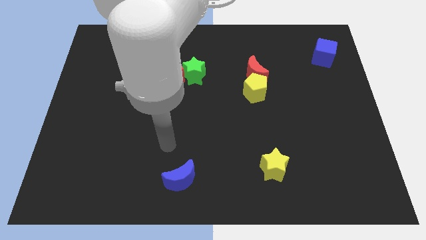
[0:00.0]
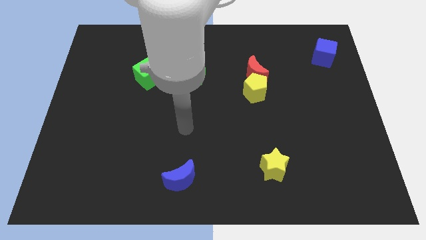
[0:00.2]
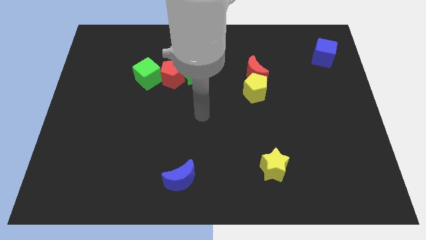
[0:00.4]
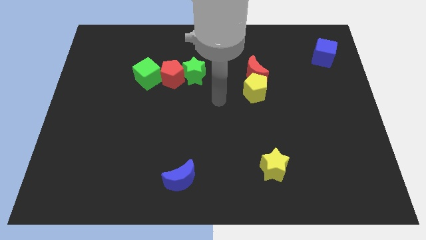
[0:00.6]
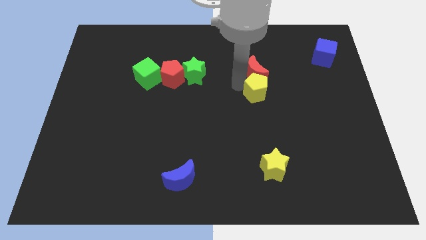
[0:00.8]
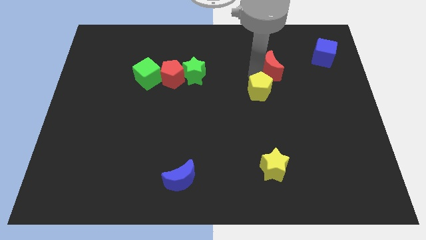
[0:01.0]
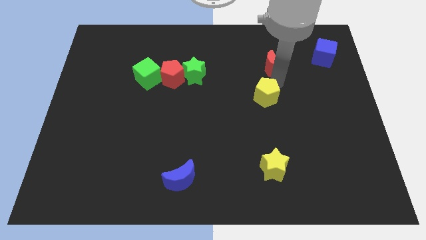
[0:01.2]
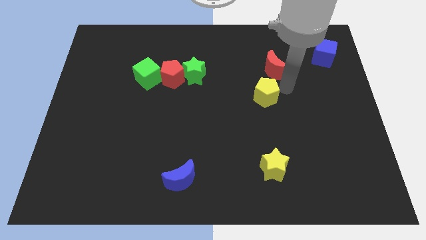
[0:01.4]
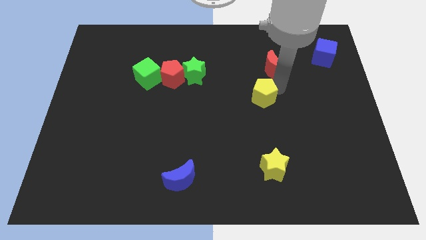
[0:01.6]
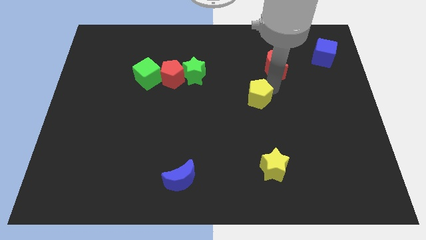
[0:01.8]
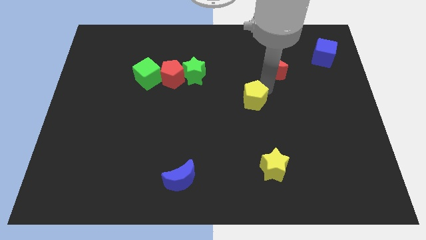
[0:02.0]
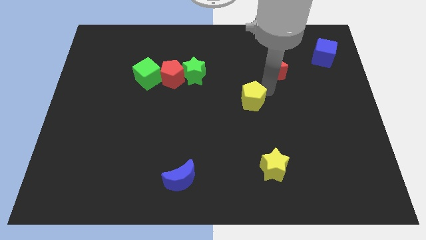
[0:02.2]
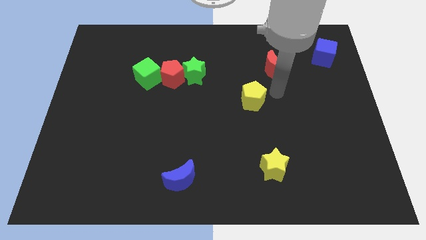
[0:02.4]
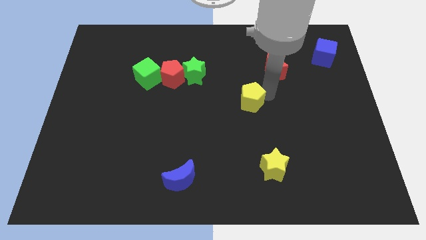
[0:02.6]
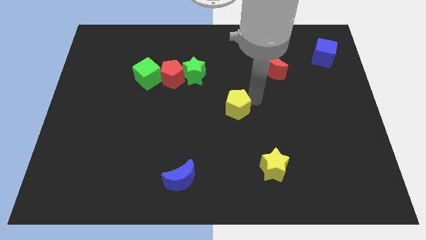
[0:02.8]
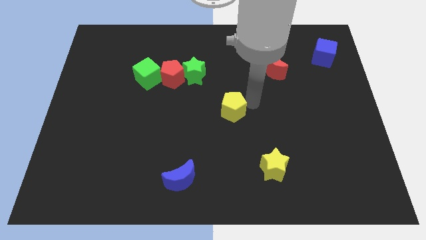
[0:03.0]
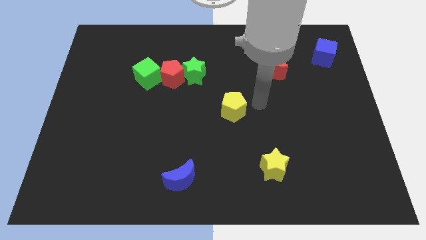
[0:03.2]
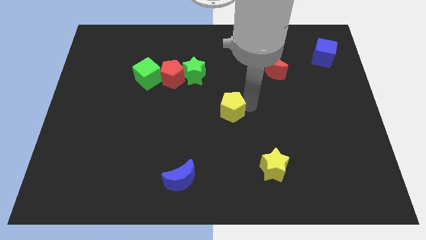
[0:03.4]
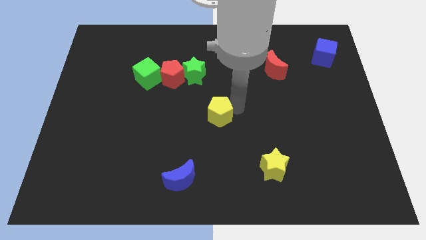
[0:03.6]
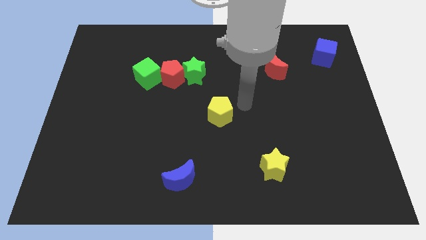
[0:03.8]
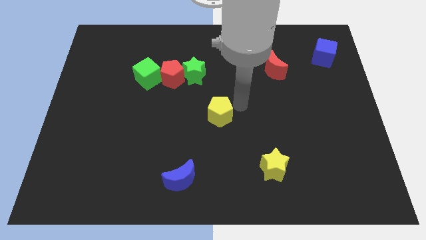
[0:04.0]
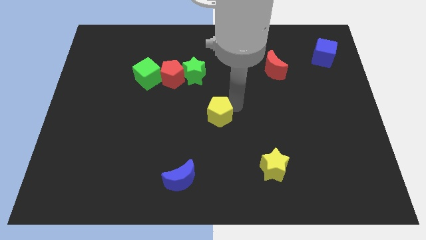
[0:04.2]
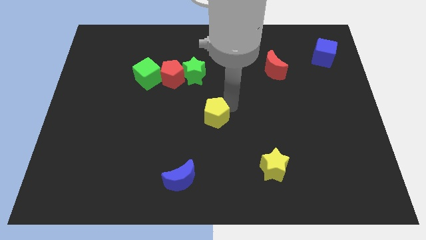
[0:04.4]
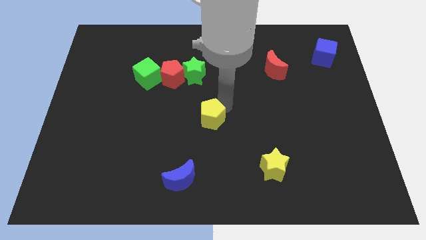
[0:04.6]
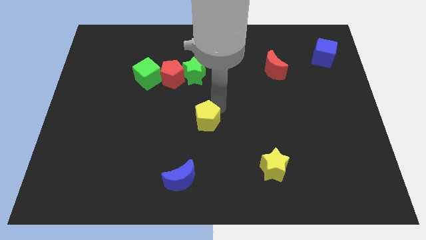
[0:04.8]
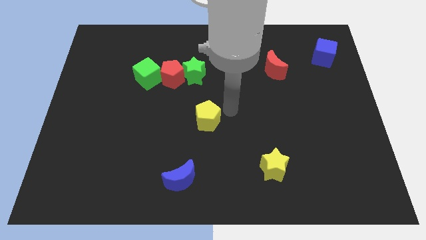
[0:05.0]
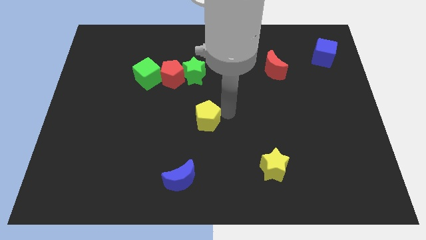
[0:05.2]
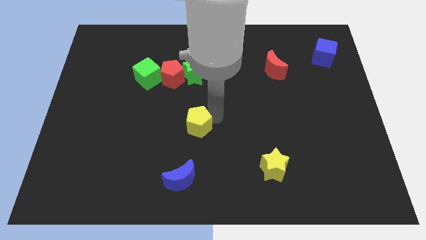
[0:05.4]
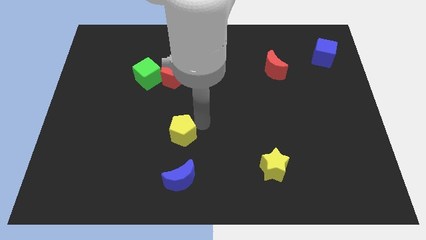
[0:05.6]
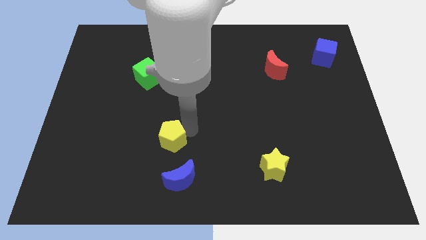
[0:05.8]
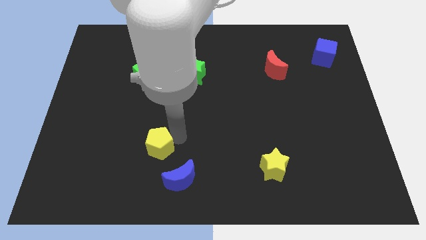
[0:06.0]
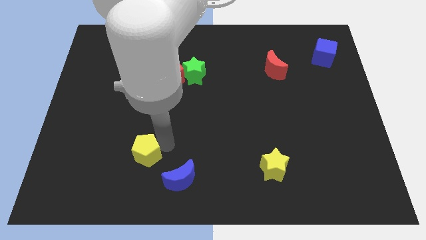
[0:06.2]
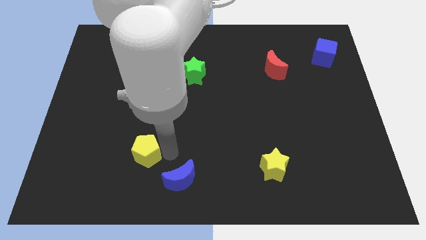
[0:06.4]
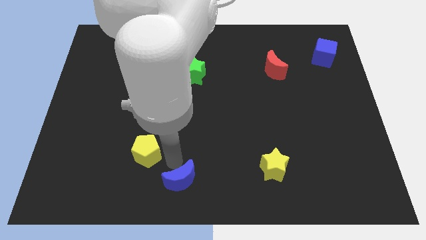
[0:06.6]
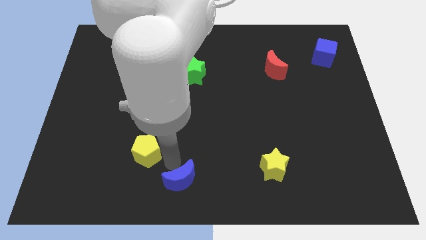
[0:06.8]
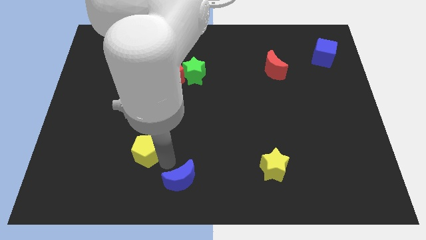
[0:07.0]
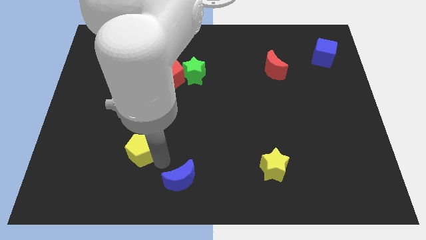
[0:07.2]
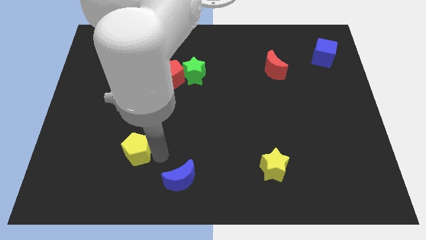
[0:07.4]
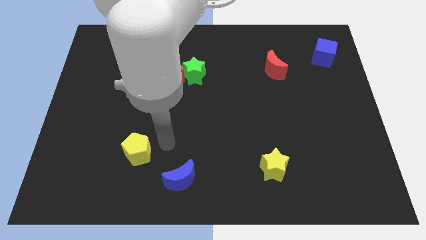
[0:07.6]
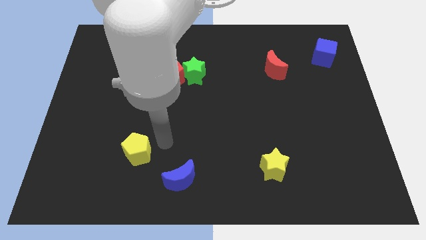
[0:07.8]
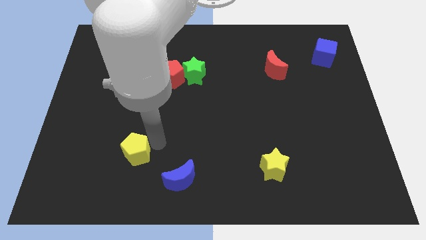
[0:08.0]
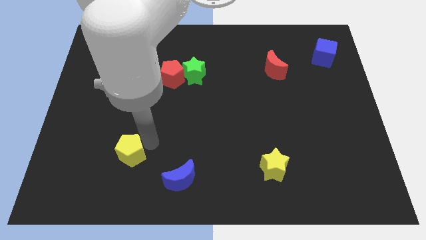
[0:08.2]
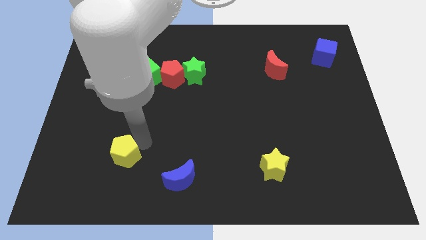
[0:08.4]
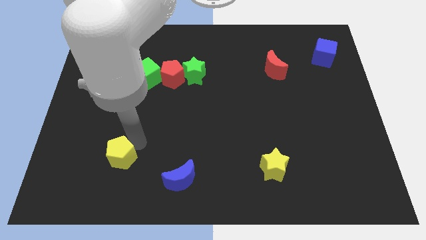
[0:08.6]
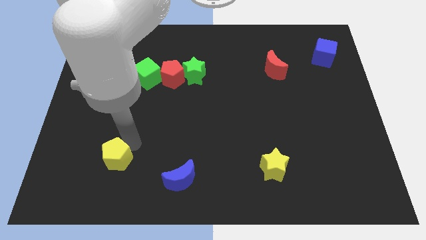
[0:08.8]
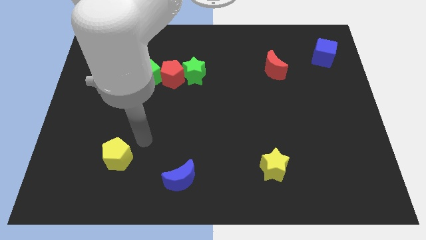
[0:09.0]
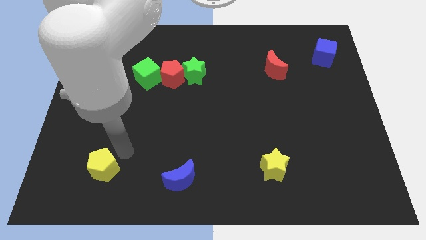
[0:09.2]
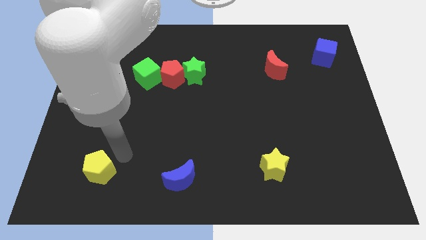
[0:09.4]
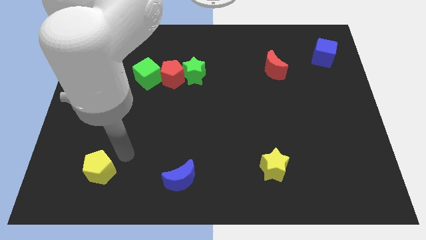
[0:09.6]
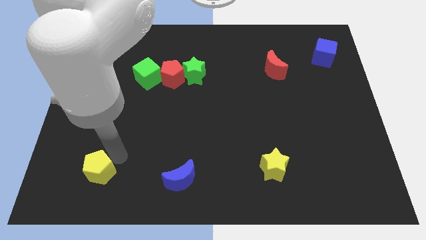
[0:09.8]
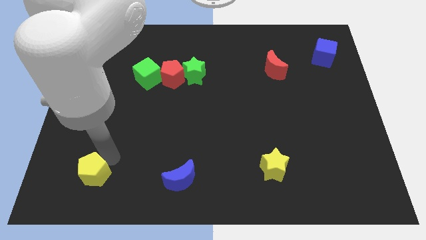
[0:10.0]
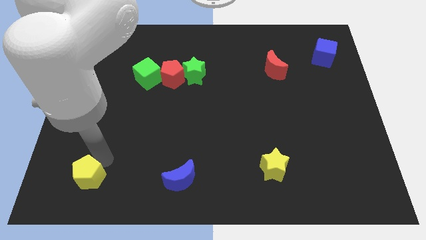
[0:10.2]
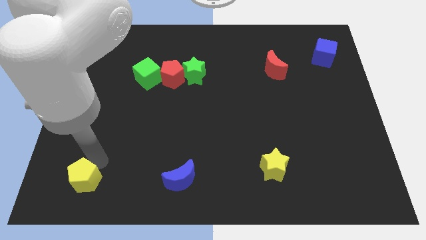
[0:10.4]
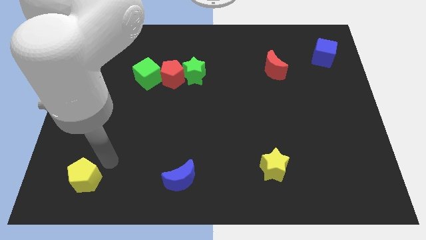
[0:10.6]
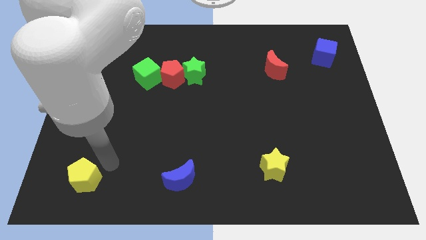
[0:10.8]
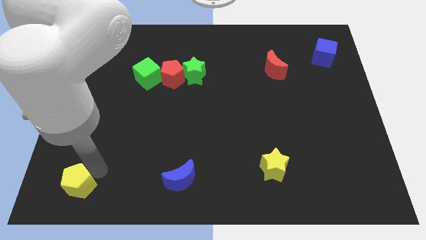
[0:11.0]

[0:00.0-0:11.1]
slide the yellow pentagon to the lower left corner
